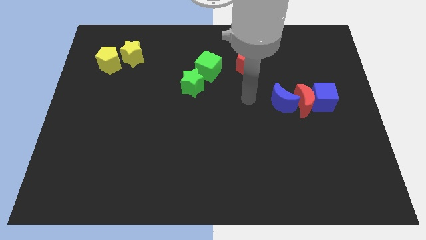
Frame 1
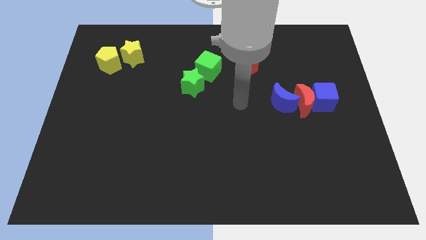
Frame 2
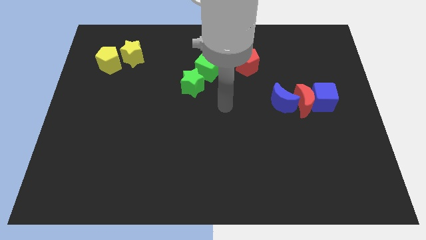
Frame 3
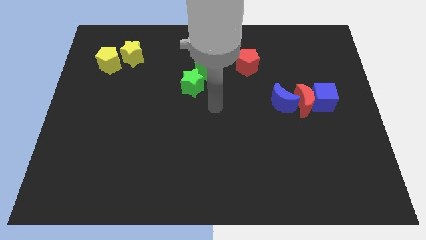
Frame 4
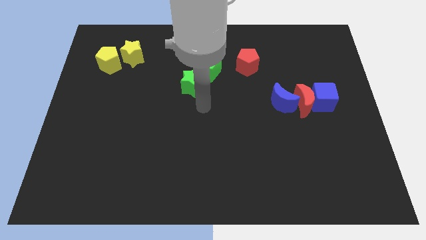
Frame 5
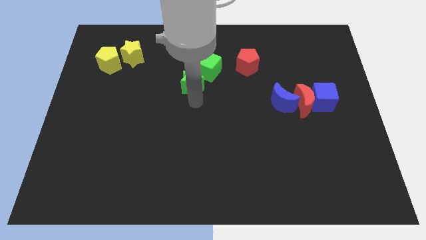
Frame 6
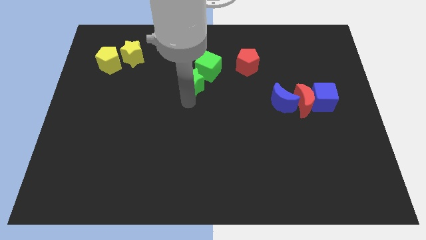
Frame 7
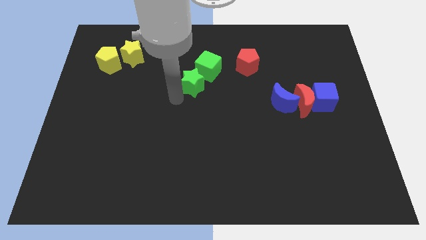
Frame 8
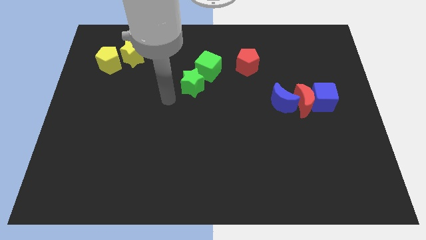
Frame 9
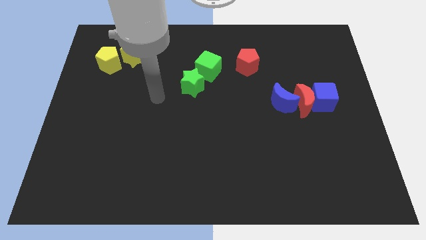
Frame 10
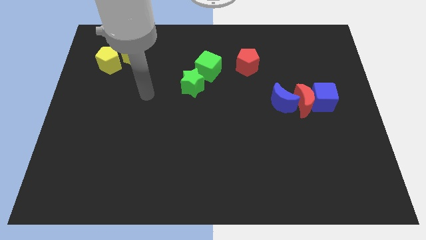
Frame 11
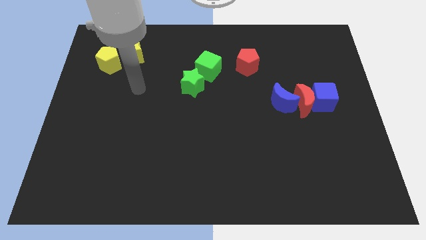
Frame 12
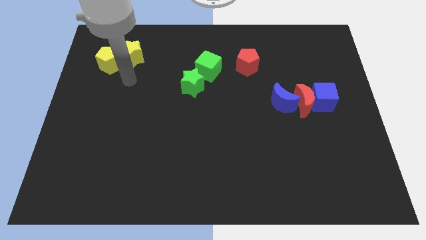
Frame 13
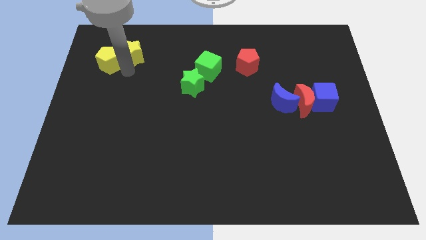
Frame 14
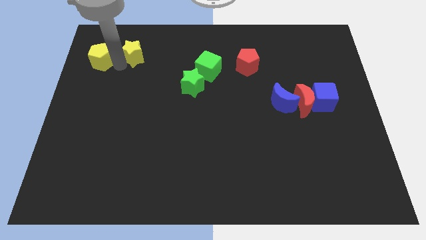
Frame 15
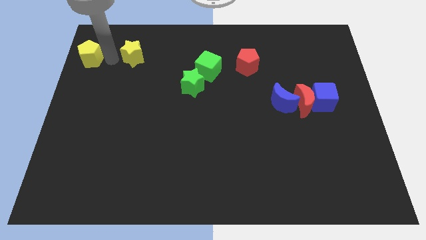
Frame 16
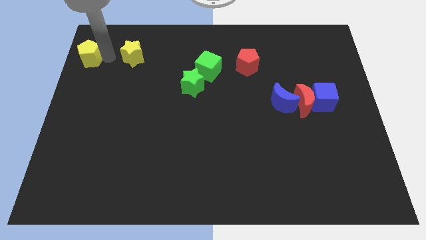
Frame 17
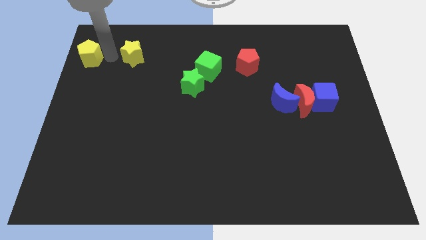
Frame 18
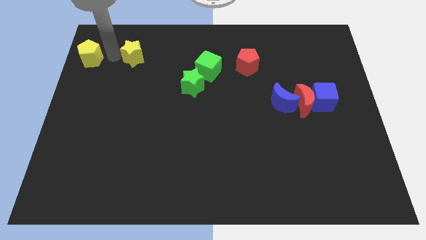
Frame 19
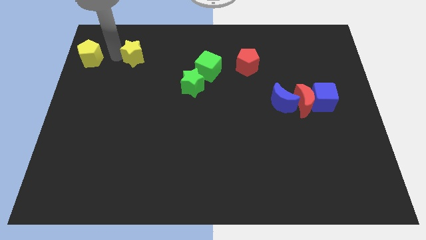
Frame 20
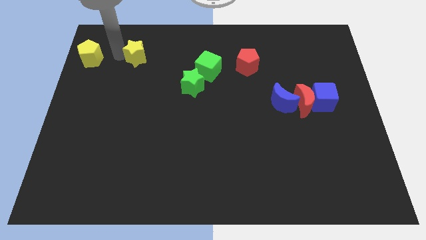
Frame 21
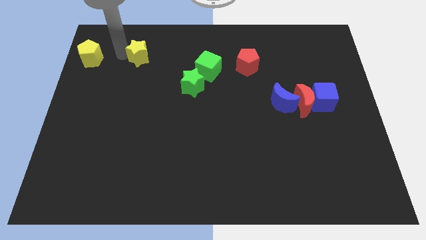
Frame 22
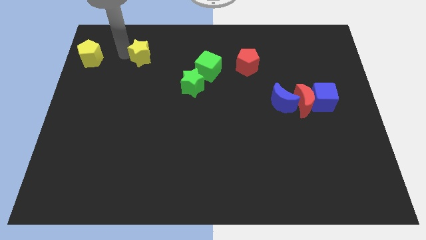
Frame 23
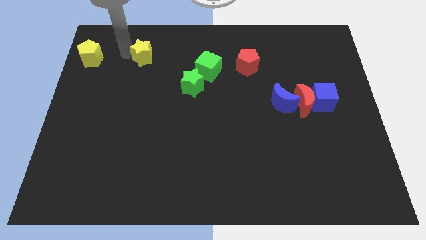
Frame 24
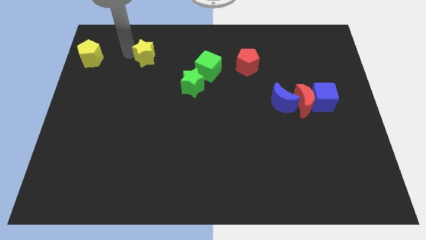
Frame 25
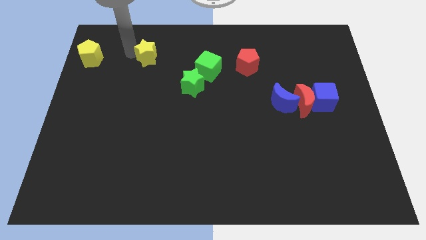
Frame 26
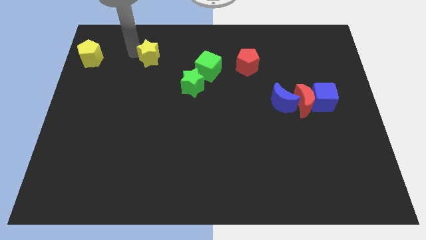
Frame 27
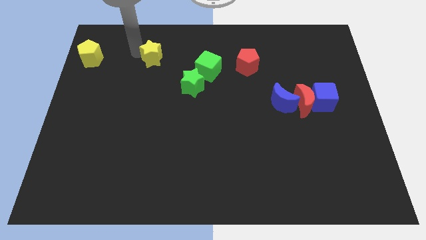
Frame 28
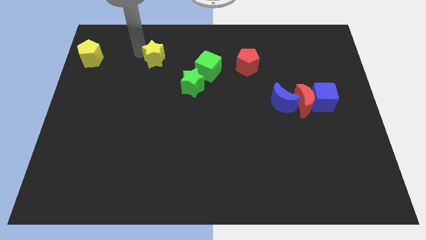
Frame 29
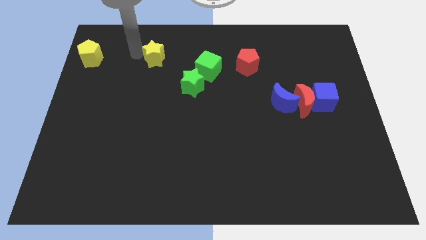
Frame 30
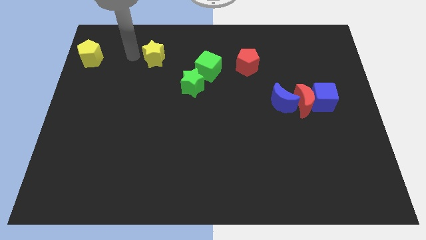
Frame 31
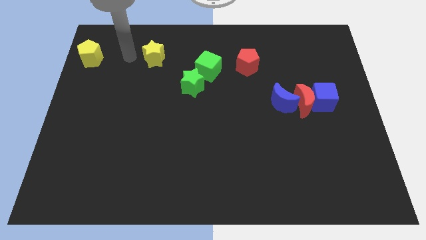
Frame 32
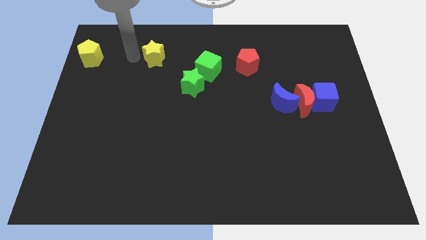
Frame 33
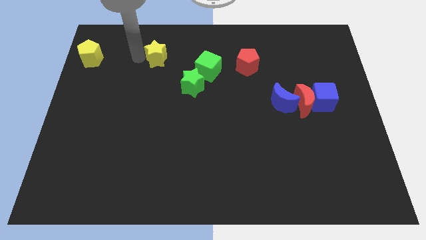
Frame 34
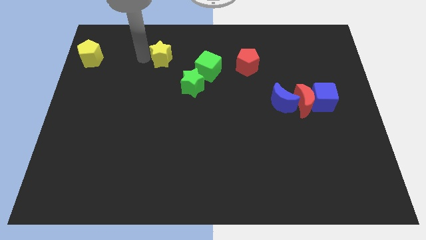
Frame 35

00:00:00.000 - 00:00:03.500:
push the yellow star slightly to the right

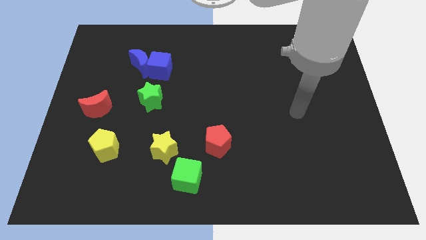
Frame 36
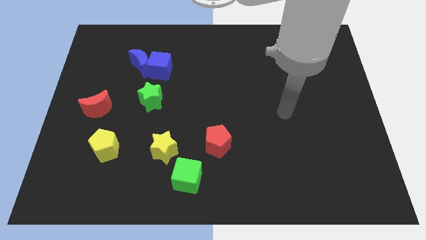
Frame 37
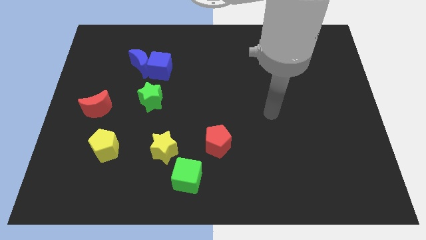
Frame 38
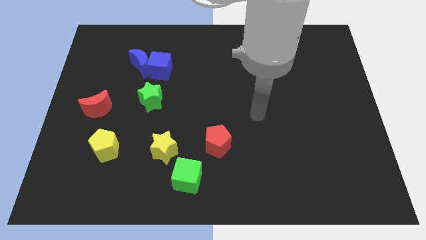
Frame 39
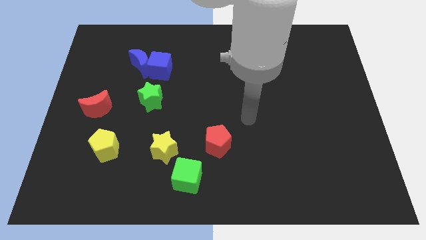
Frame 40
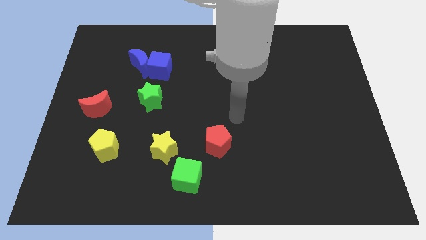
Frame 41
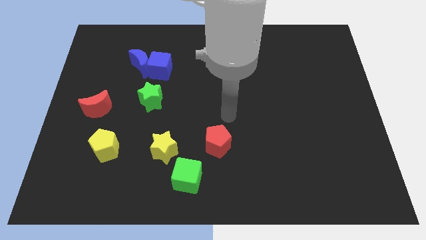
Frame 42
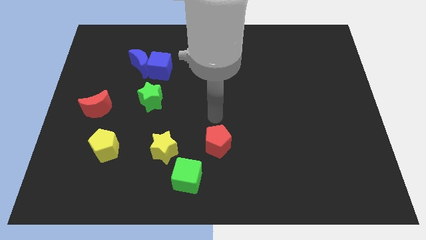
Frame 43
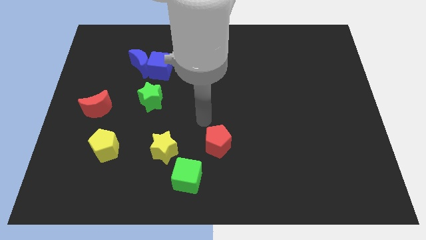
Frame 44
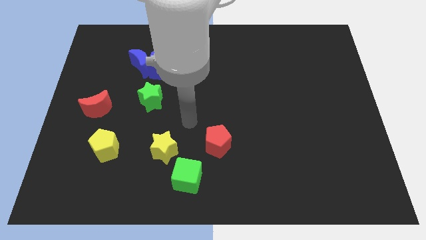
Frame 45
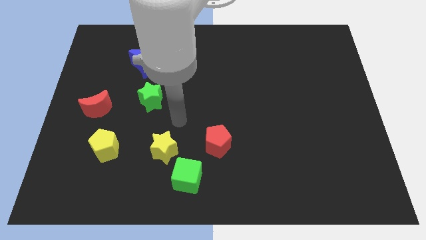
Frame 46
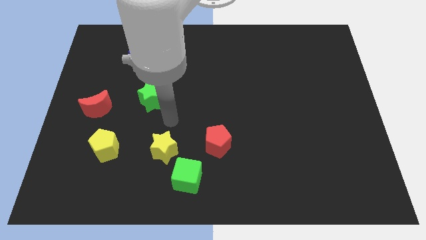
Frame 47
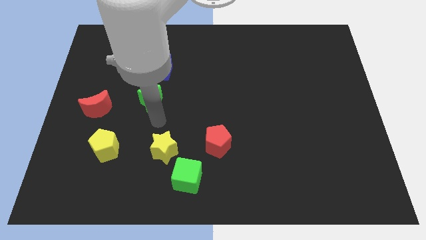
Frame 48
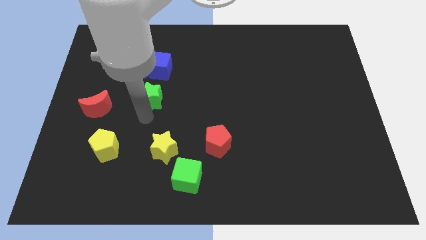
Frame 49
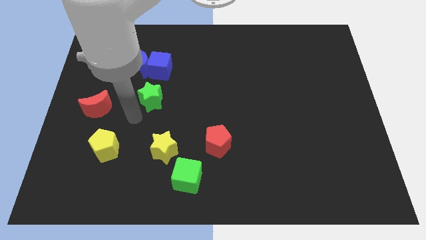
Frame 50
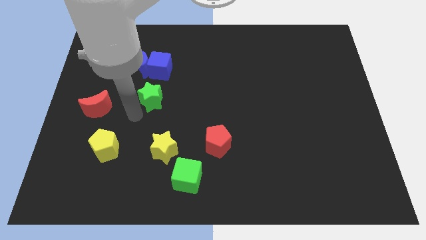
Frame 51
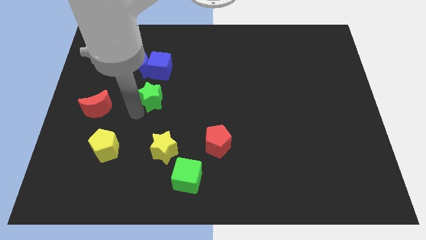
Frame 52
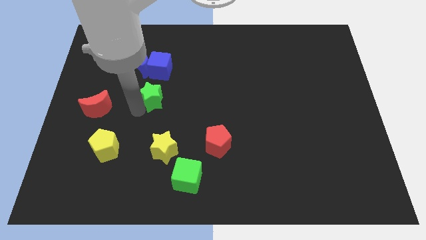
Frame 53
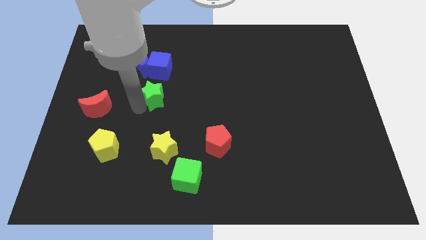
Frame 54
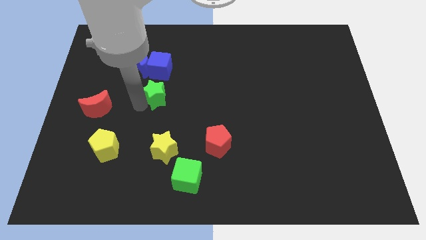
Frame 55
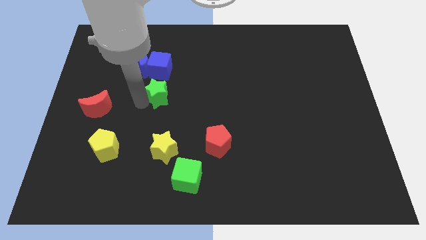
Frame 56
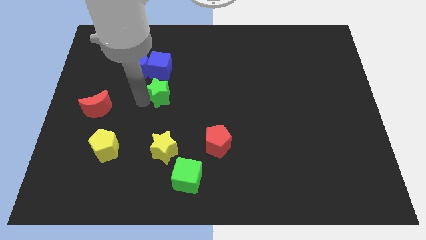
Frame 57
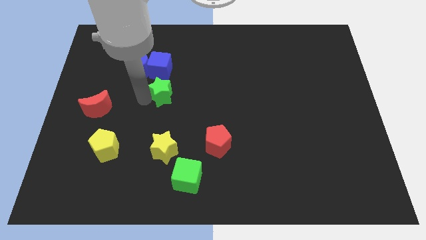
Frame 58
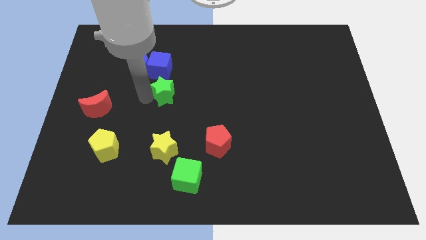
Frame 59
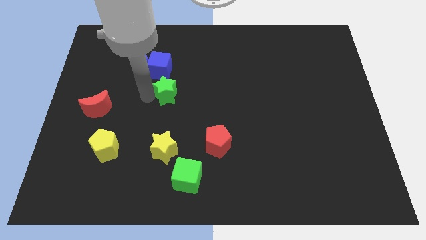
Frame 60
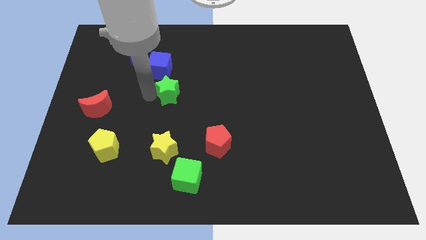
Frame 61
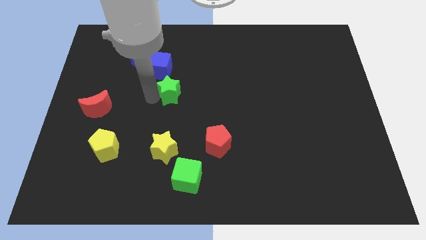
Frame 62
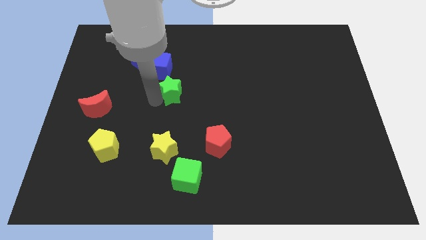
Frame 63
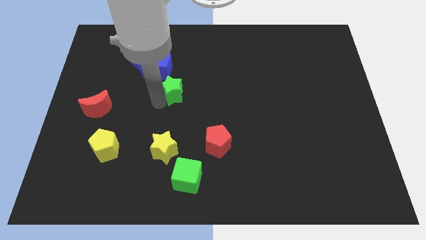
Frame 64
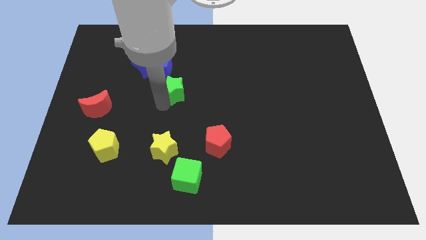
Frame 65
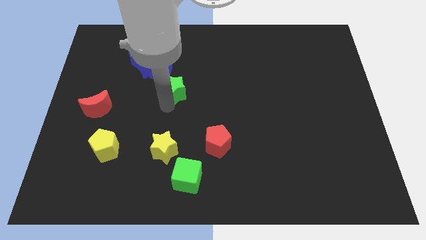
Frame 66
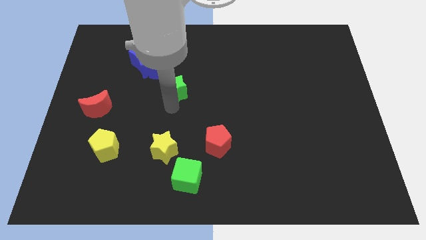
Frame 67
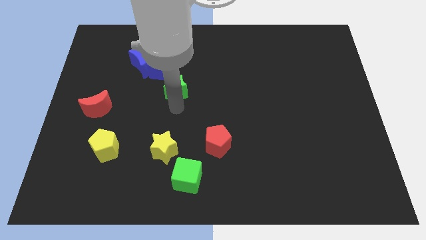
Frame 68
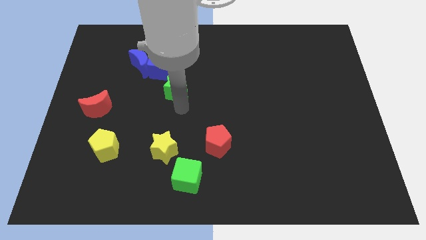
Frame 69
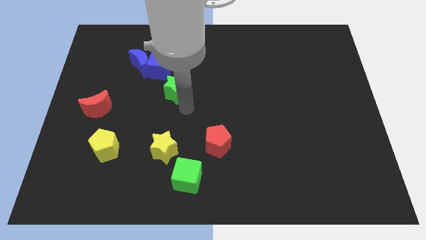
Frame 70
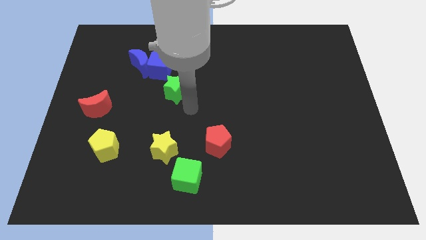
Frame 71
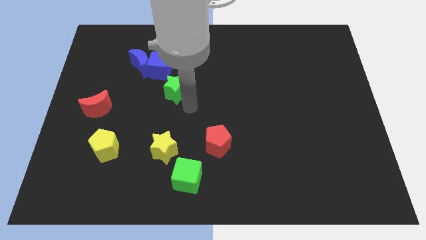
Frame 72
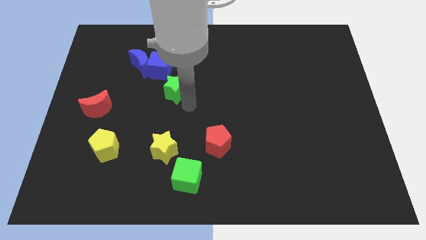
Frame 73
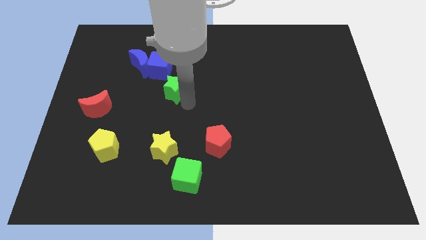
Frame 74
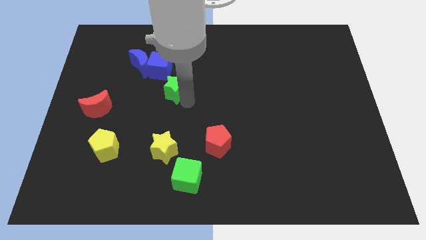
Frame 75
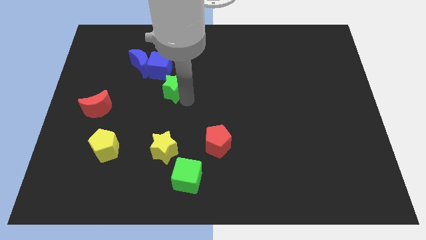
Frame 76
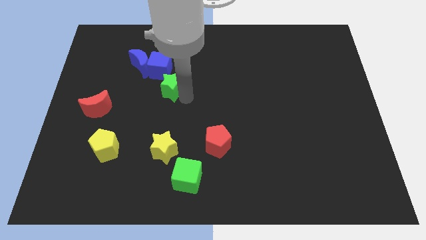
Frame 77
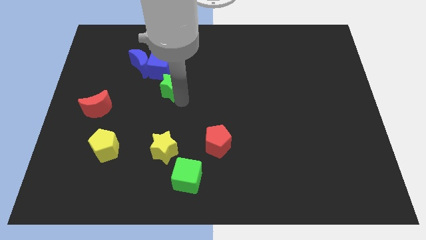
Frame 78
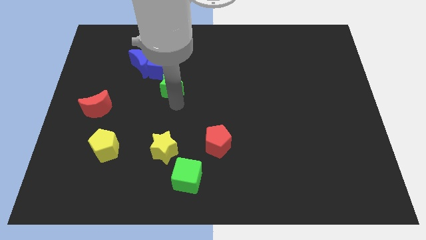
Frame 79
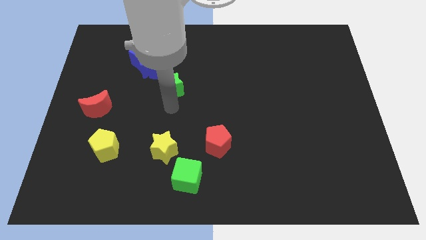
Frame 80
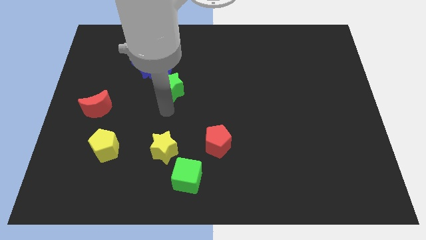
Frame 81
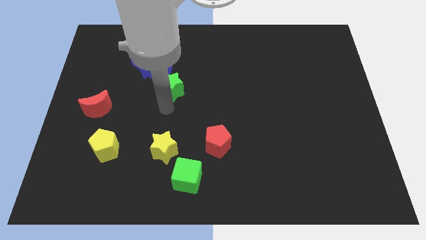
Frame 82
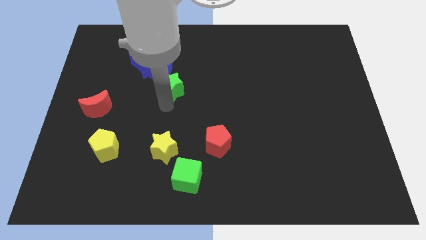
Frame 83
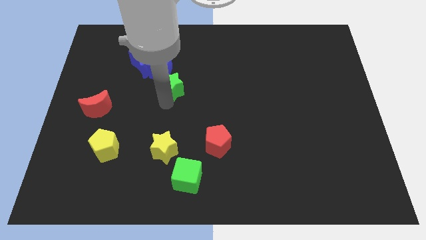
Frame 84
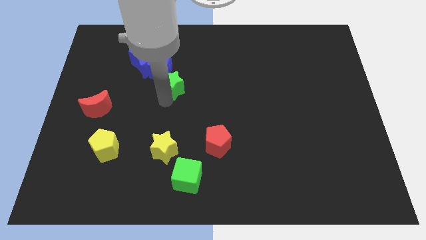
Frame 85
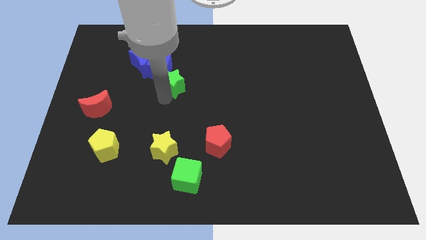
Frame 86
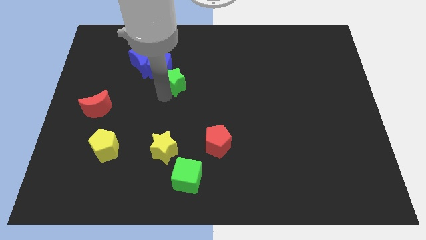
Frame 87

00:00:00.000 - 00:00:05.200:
slide the green star up and right a little bit
